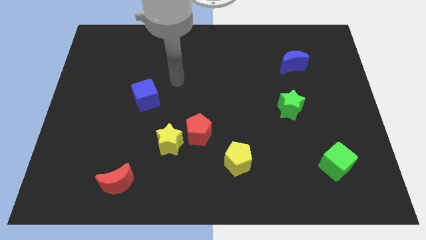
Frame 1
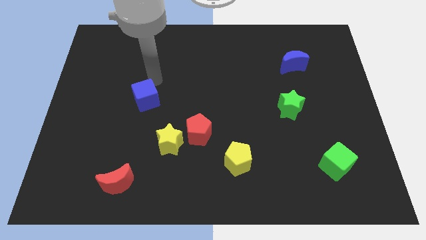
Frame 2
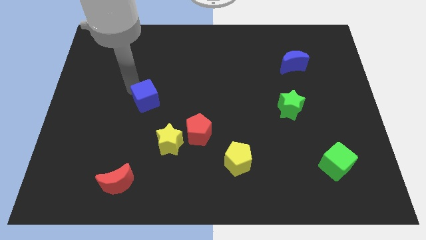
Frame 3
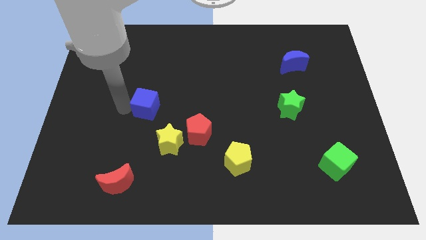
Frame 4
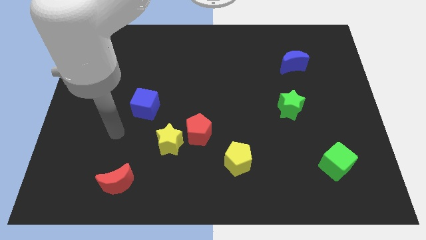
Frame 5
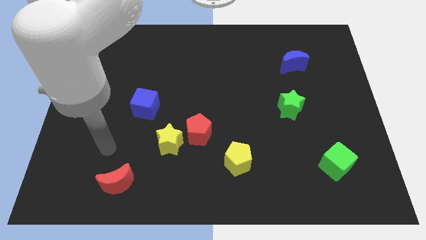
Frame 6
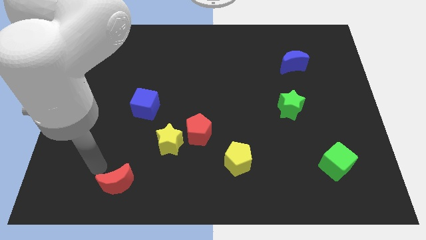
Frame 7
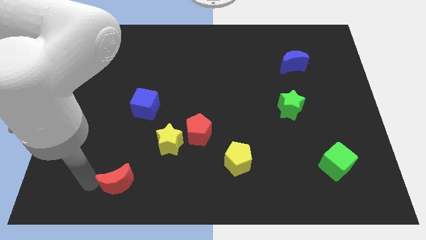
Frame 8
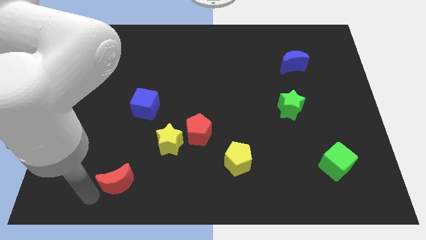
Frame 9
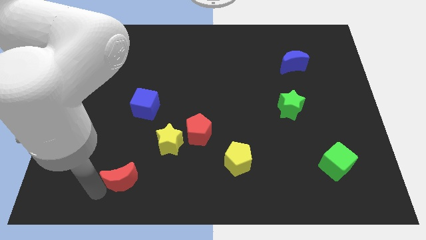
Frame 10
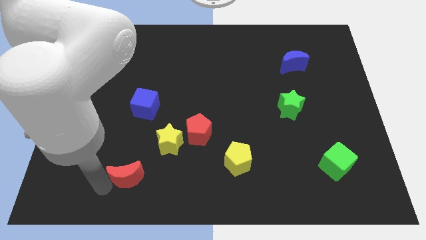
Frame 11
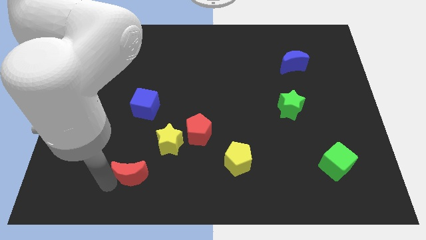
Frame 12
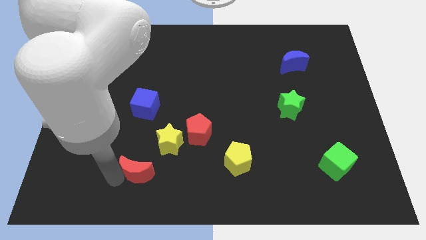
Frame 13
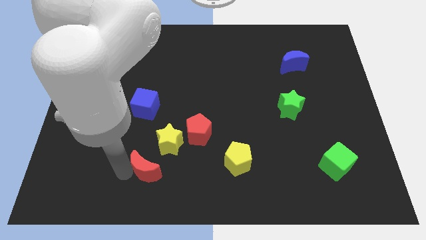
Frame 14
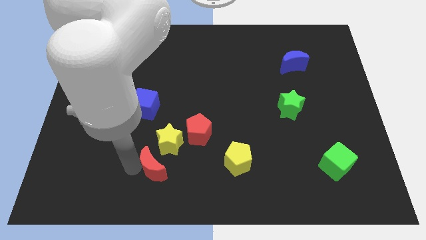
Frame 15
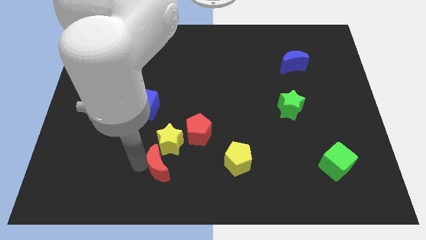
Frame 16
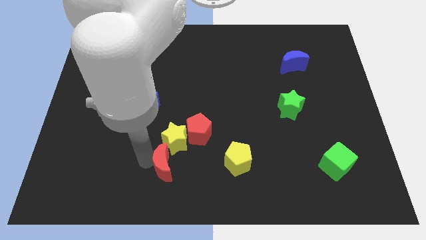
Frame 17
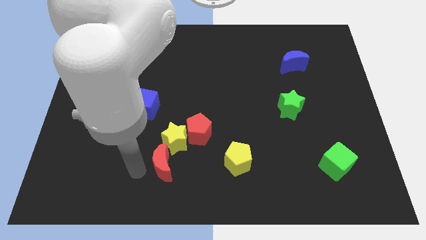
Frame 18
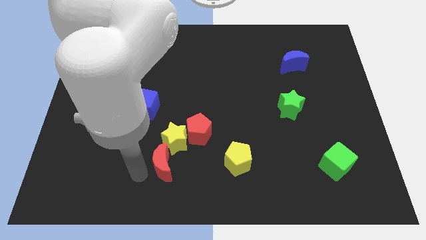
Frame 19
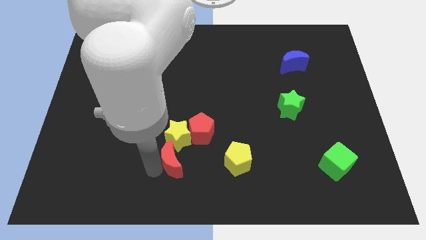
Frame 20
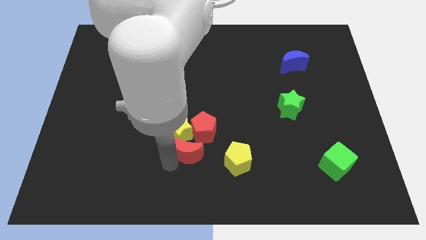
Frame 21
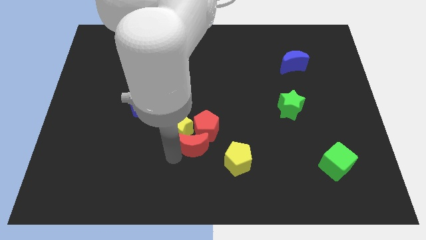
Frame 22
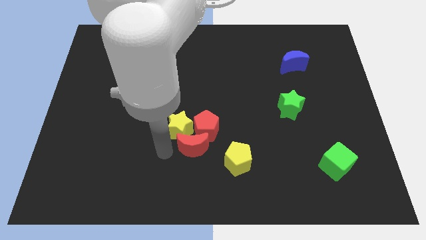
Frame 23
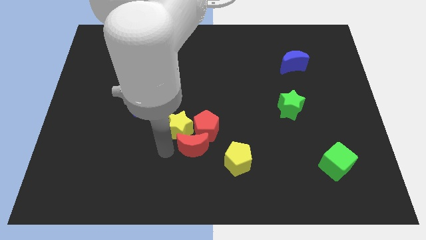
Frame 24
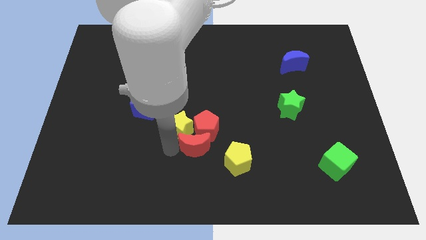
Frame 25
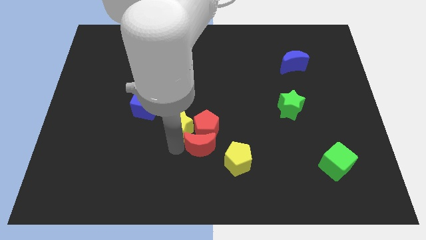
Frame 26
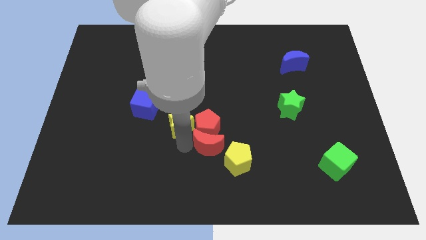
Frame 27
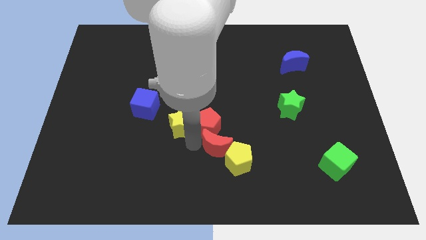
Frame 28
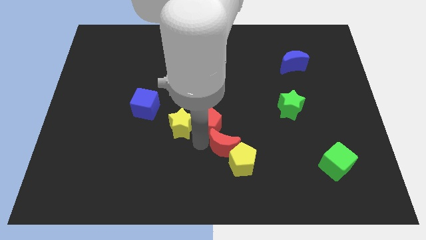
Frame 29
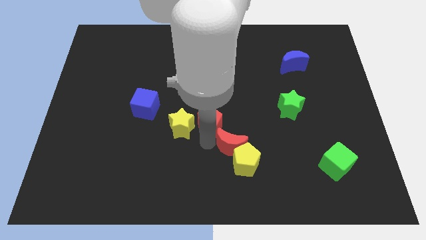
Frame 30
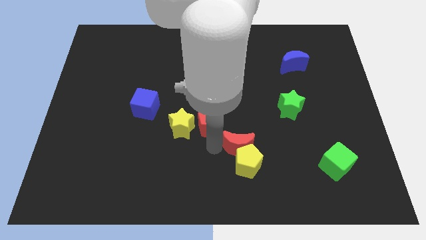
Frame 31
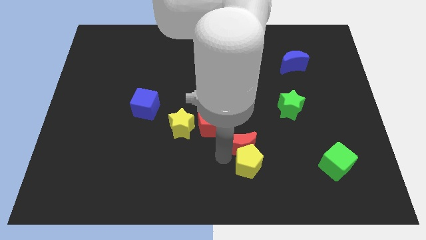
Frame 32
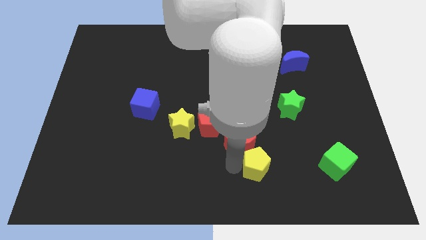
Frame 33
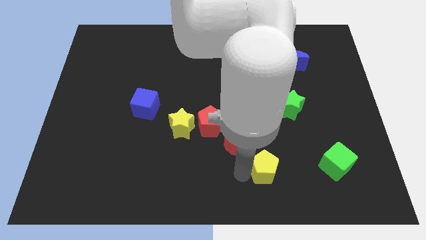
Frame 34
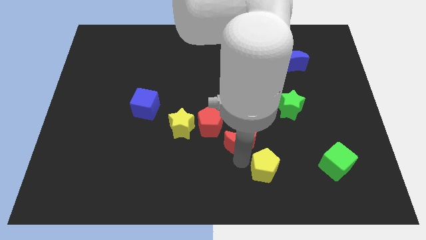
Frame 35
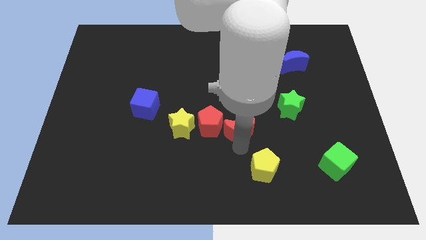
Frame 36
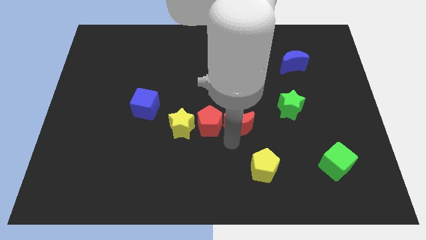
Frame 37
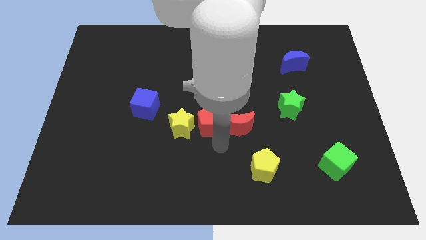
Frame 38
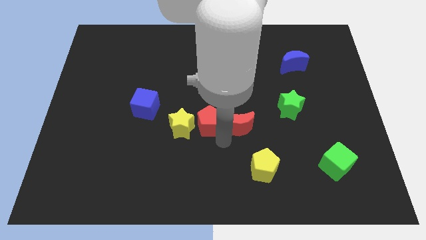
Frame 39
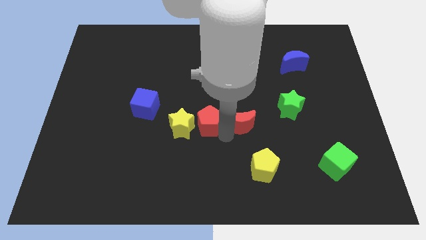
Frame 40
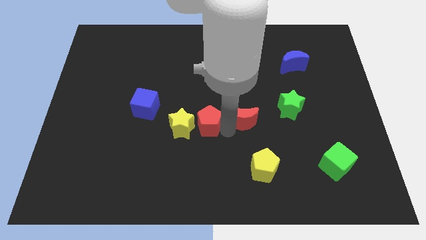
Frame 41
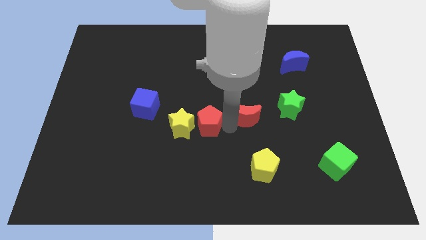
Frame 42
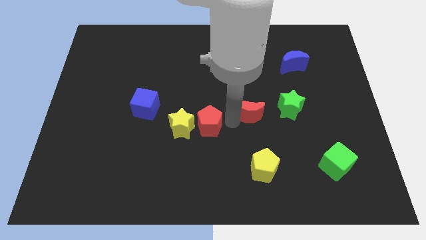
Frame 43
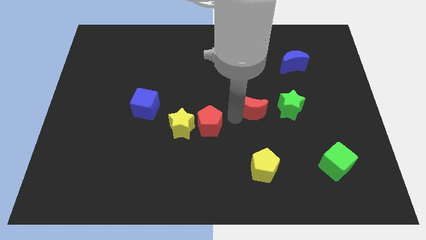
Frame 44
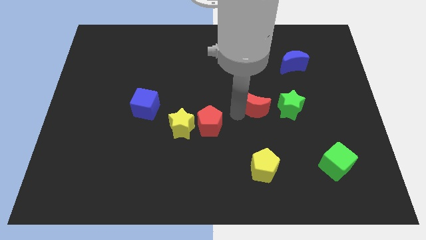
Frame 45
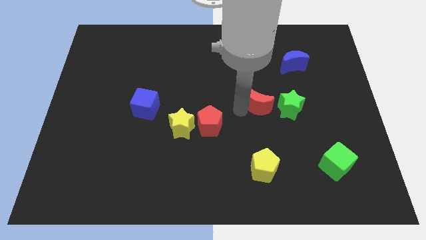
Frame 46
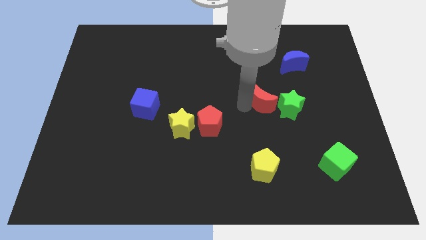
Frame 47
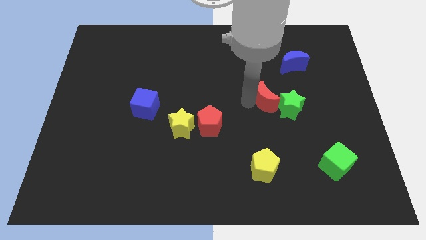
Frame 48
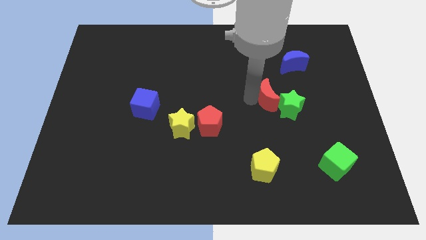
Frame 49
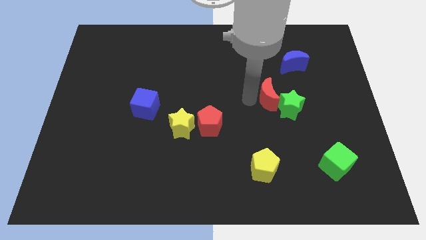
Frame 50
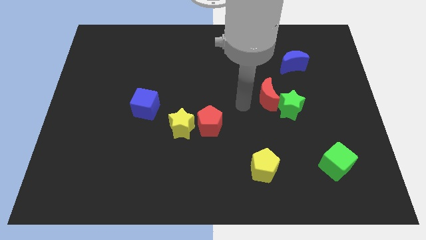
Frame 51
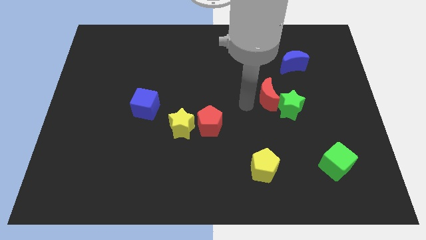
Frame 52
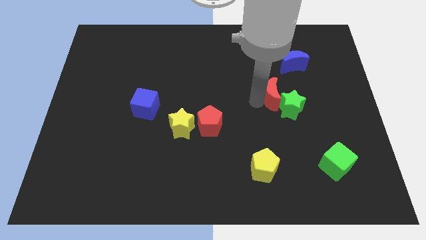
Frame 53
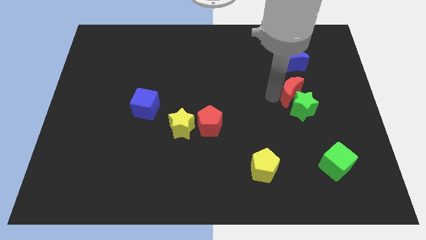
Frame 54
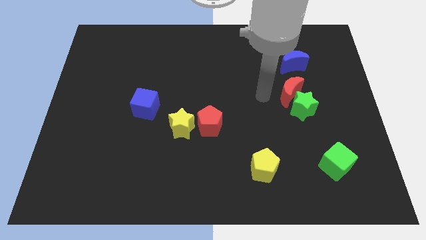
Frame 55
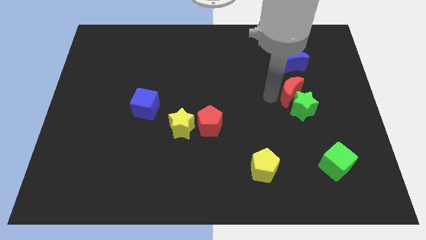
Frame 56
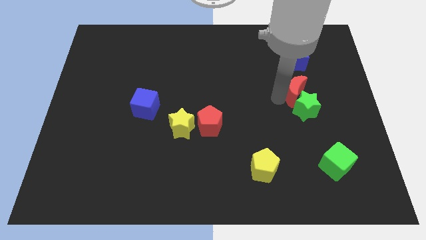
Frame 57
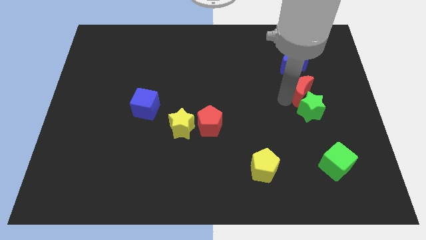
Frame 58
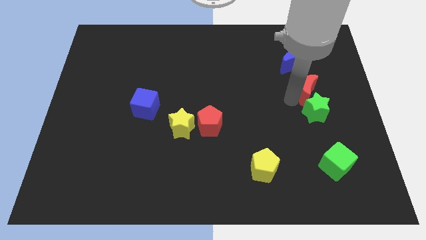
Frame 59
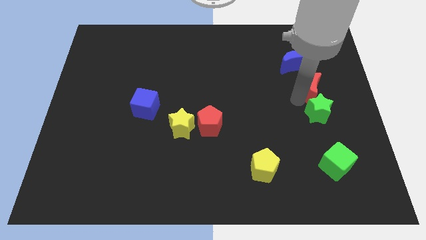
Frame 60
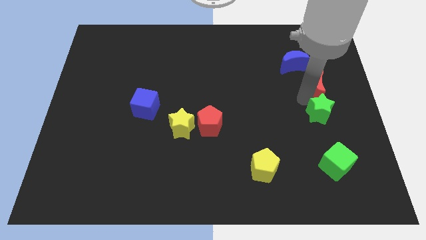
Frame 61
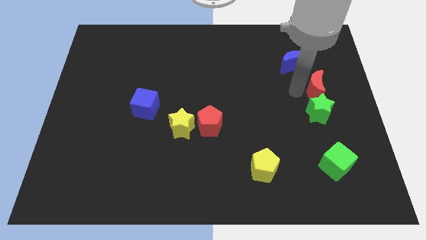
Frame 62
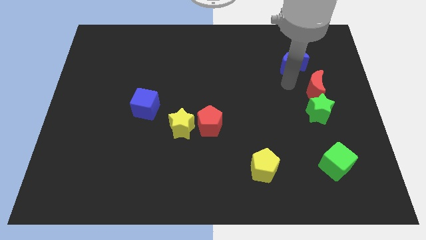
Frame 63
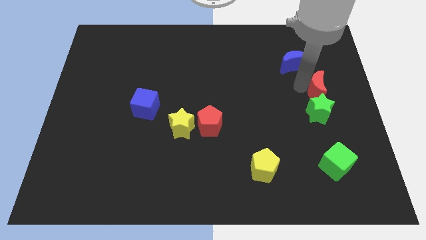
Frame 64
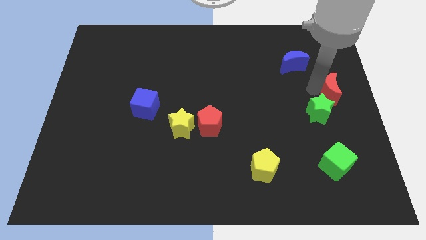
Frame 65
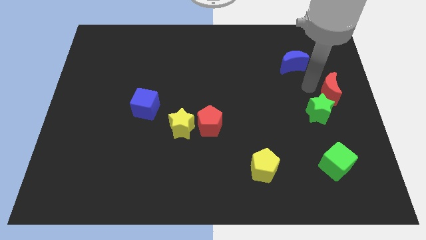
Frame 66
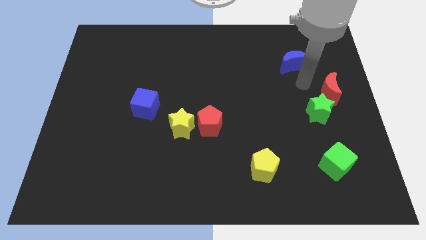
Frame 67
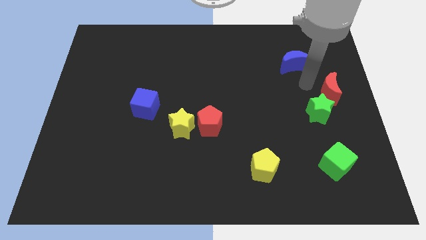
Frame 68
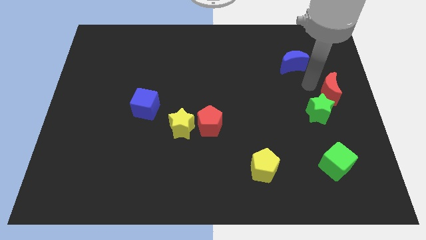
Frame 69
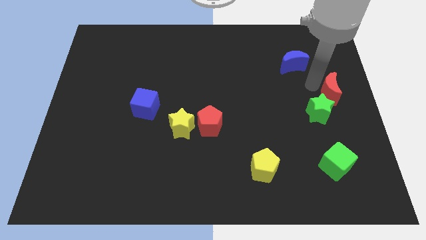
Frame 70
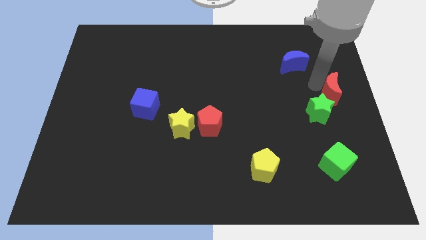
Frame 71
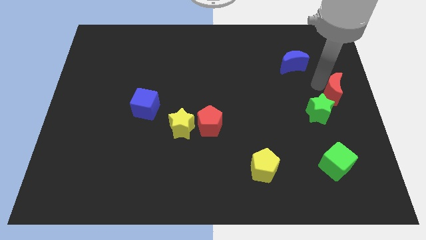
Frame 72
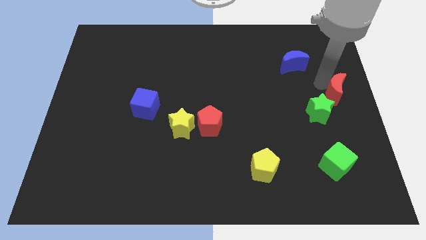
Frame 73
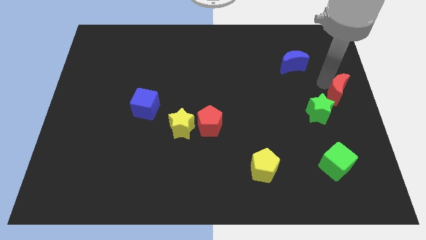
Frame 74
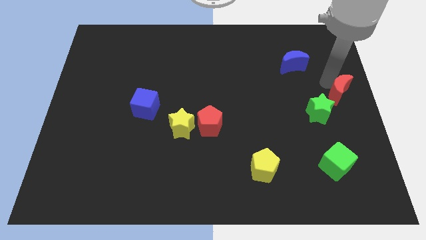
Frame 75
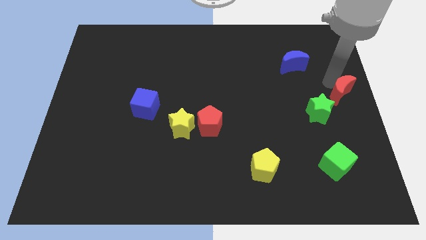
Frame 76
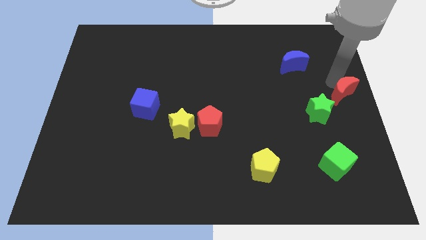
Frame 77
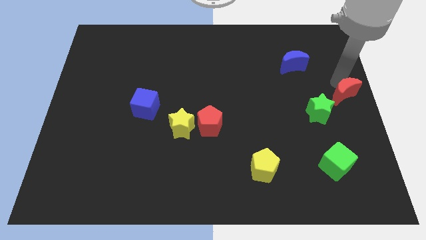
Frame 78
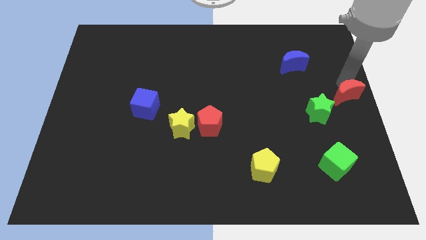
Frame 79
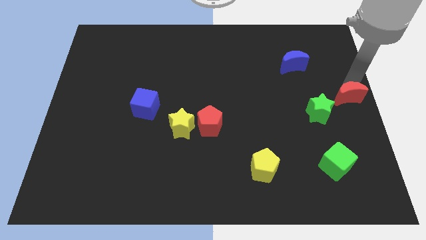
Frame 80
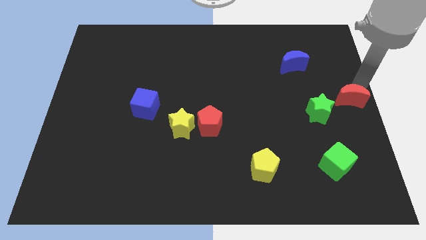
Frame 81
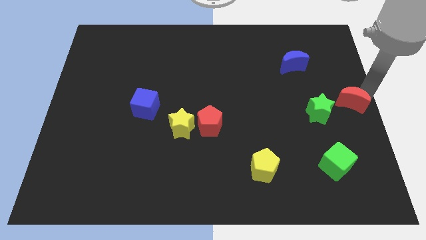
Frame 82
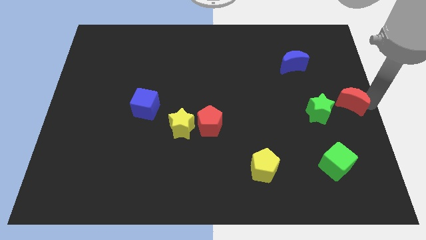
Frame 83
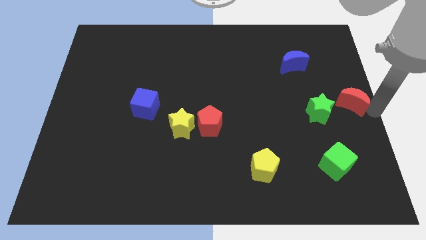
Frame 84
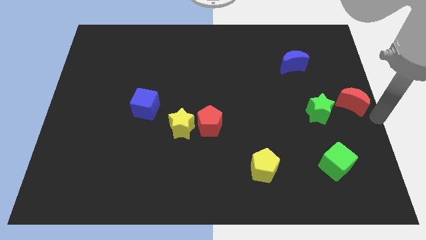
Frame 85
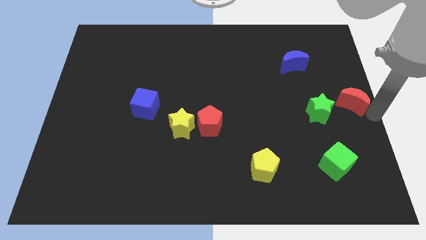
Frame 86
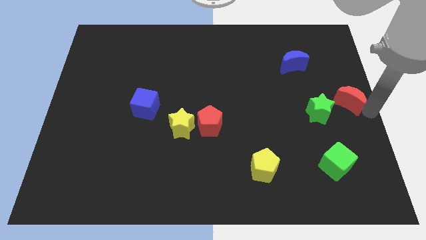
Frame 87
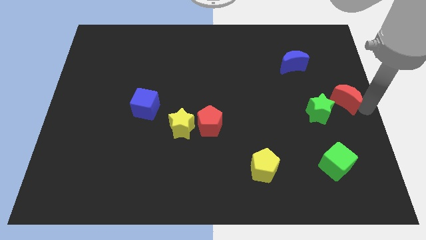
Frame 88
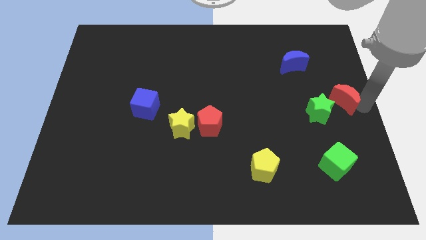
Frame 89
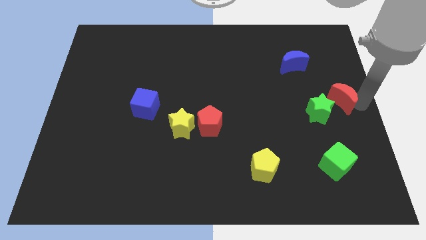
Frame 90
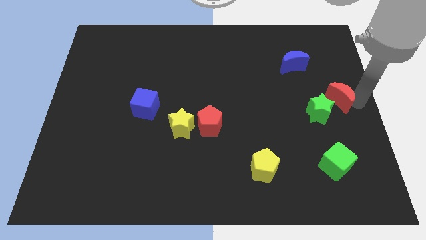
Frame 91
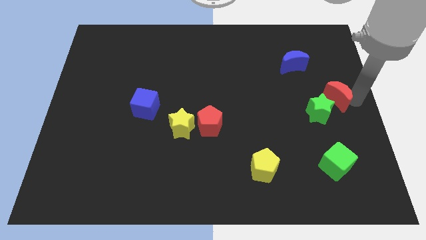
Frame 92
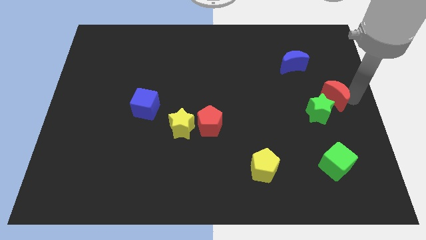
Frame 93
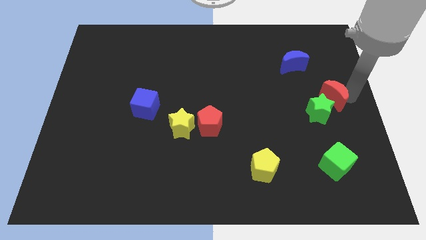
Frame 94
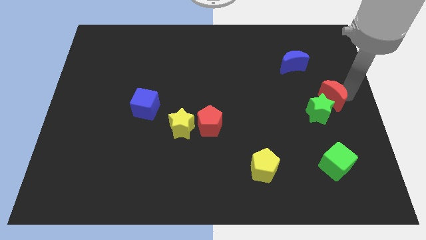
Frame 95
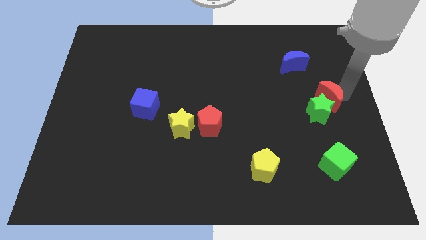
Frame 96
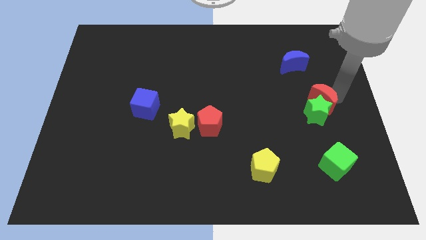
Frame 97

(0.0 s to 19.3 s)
slide the red moon to the top right of the green star
